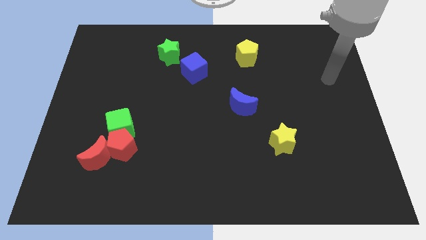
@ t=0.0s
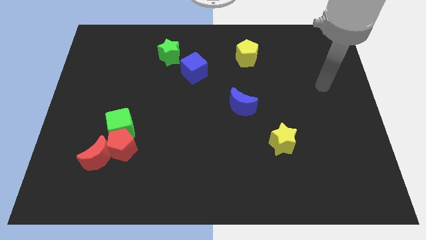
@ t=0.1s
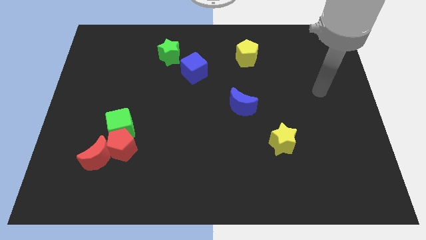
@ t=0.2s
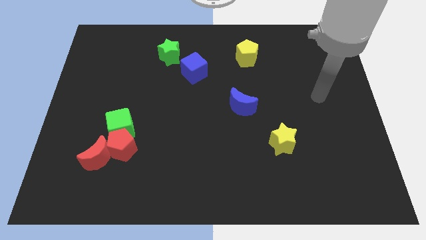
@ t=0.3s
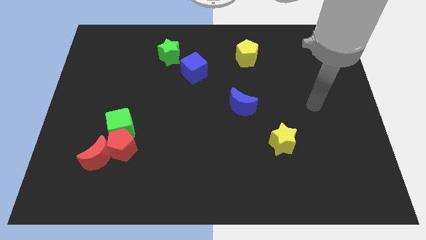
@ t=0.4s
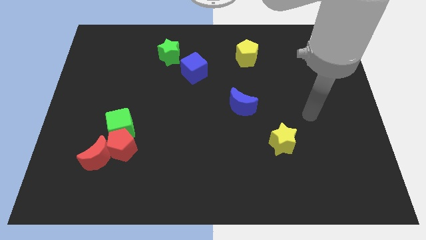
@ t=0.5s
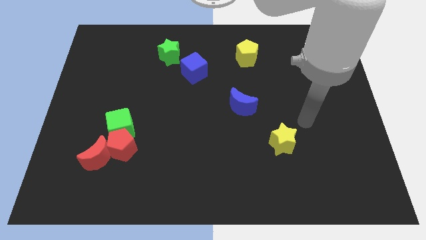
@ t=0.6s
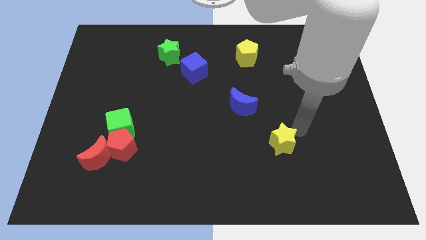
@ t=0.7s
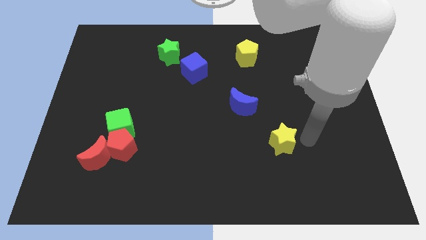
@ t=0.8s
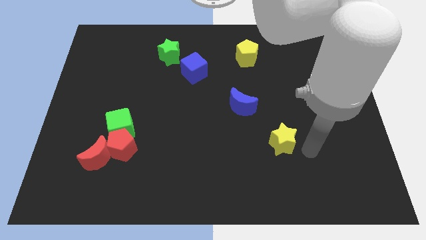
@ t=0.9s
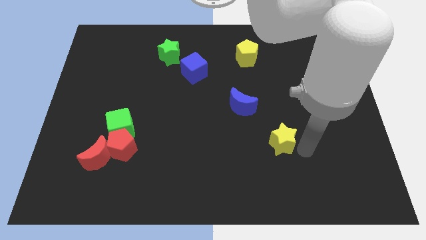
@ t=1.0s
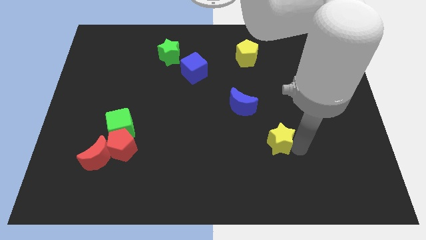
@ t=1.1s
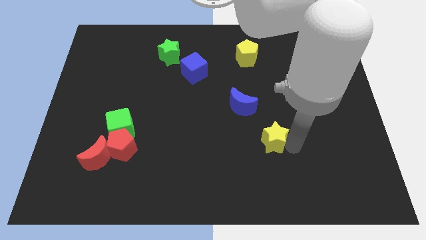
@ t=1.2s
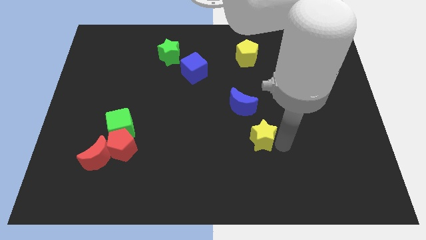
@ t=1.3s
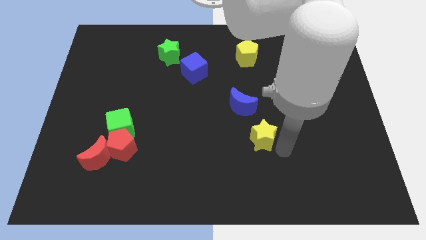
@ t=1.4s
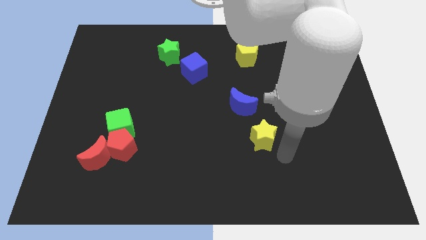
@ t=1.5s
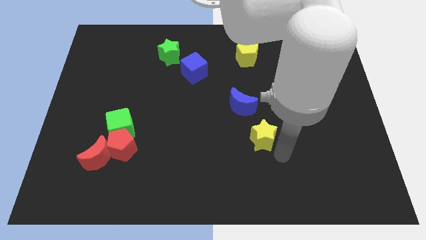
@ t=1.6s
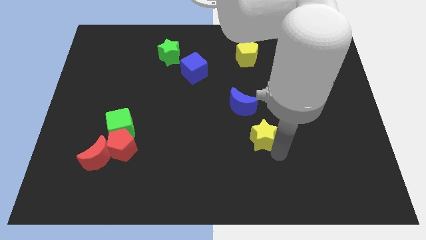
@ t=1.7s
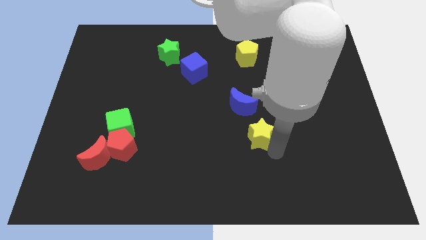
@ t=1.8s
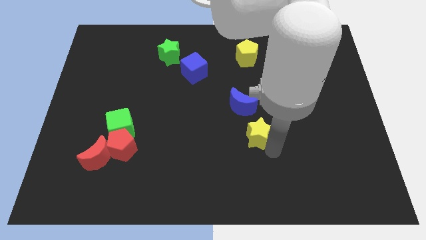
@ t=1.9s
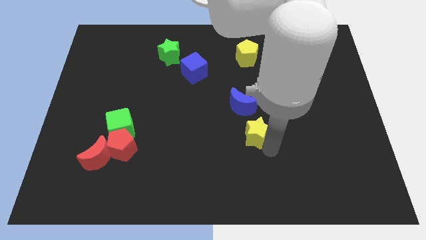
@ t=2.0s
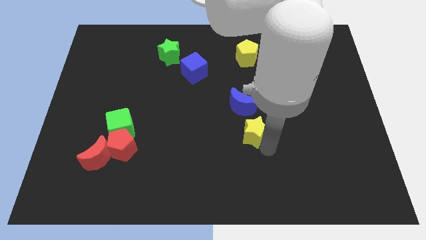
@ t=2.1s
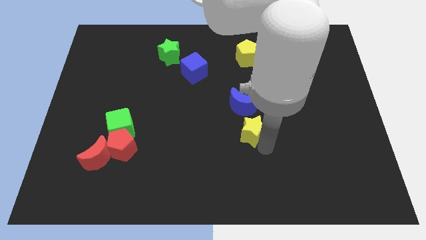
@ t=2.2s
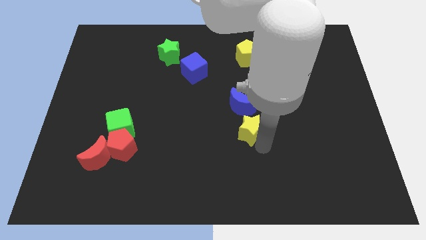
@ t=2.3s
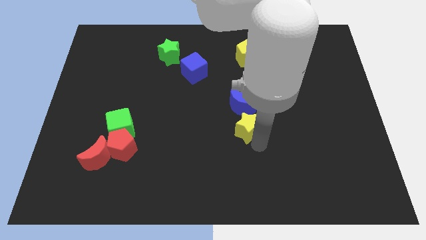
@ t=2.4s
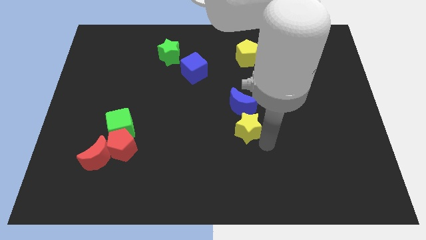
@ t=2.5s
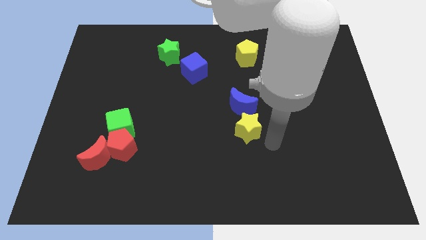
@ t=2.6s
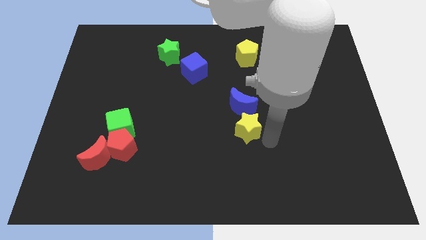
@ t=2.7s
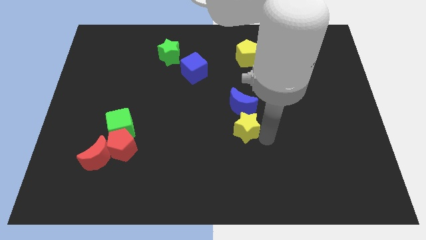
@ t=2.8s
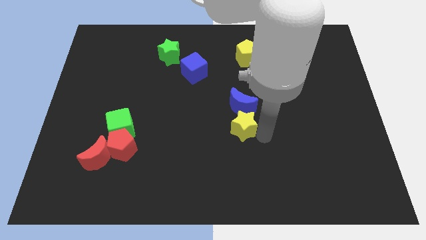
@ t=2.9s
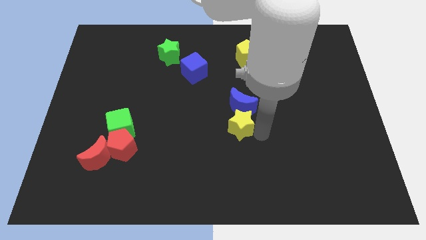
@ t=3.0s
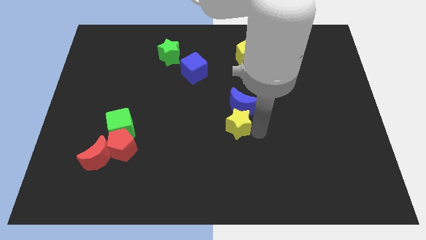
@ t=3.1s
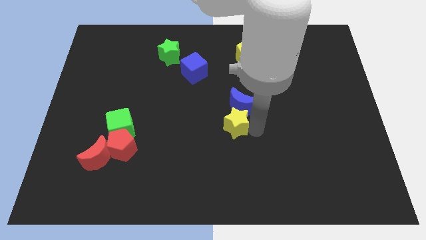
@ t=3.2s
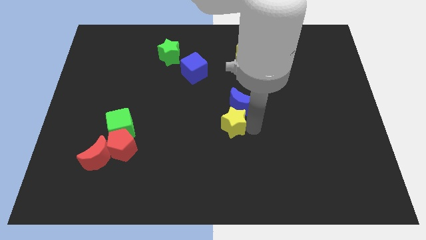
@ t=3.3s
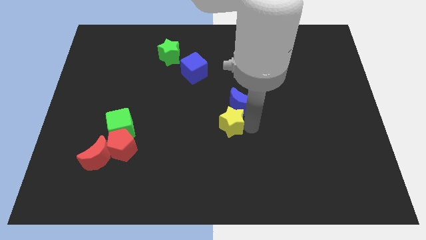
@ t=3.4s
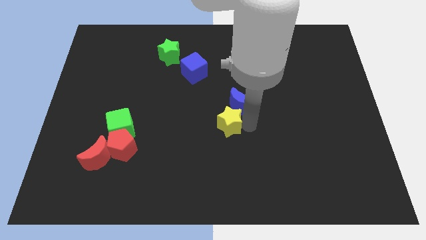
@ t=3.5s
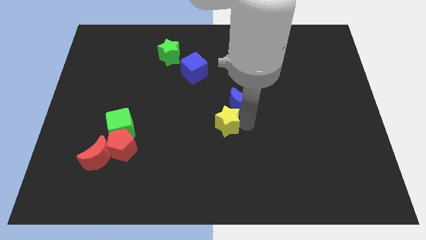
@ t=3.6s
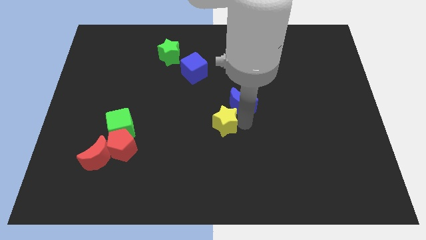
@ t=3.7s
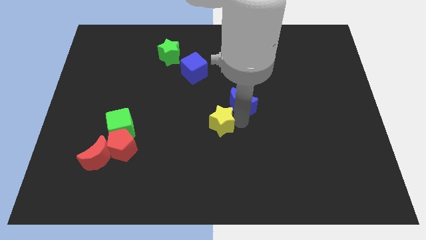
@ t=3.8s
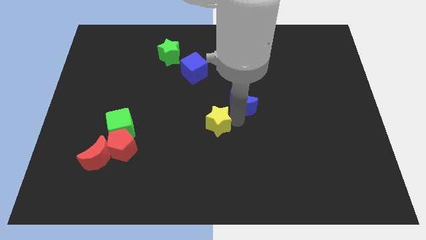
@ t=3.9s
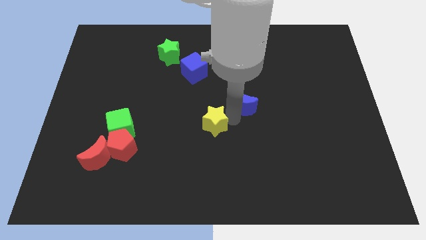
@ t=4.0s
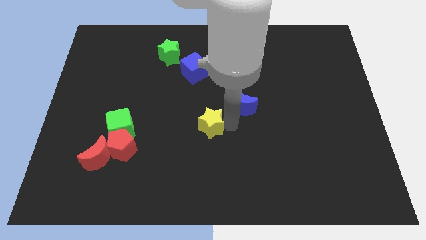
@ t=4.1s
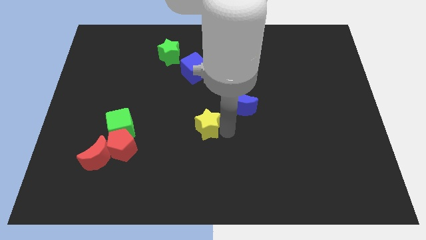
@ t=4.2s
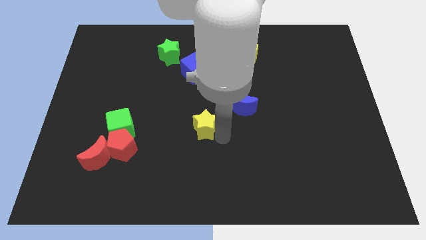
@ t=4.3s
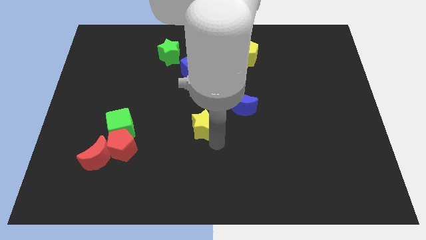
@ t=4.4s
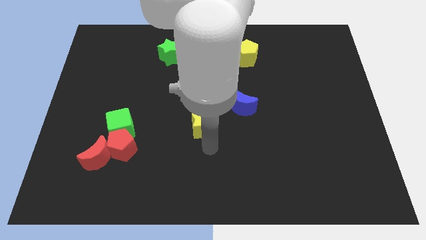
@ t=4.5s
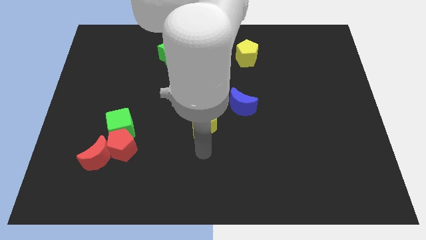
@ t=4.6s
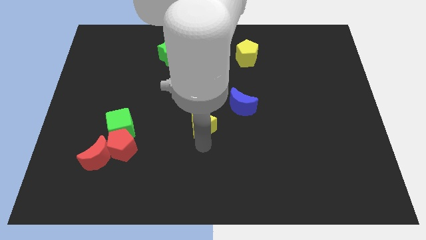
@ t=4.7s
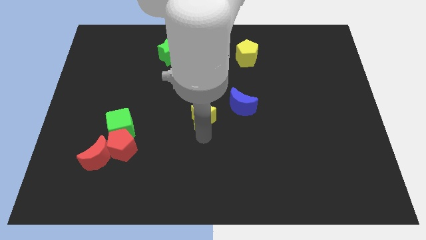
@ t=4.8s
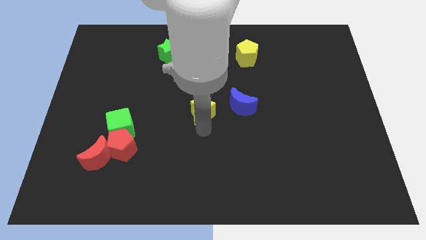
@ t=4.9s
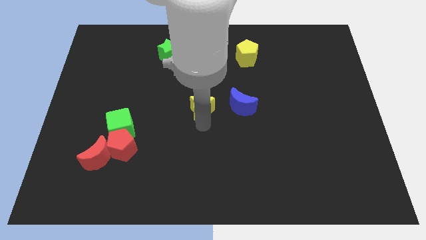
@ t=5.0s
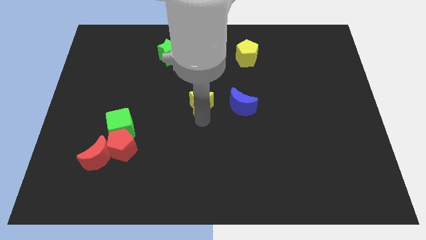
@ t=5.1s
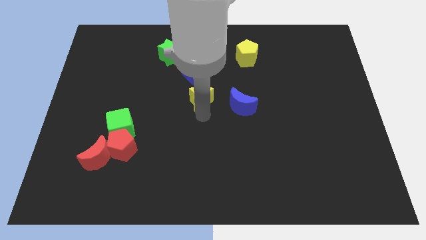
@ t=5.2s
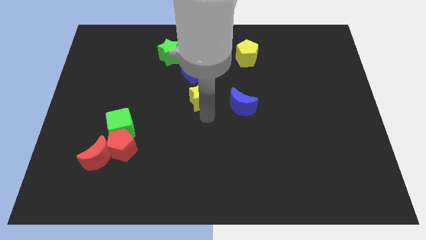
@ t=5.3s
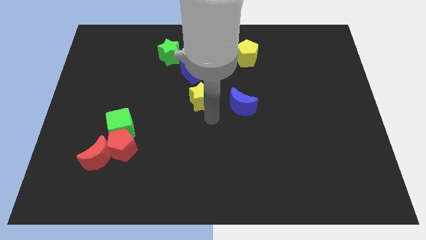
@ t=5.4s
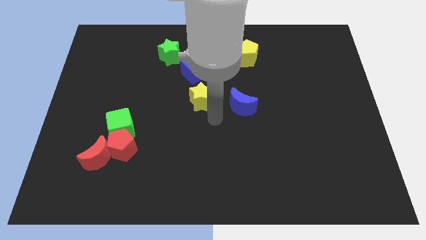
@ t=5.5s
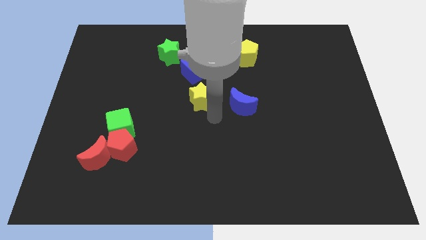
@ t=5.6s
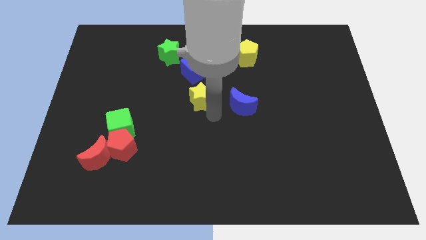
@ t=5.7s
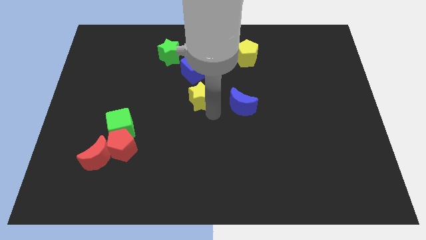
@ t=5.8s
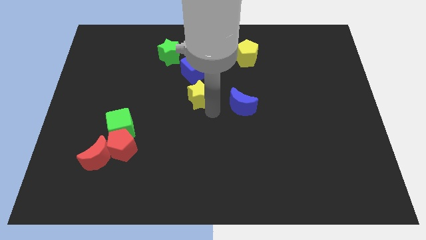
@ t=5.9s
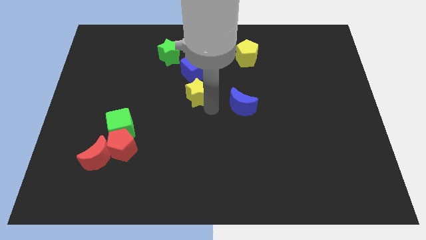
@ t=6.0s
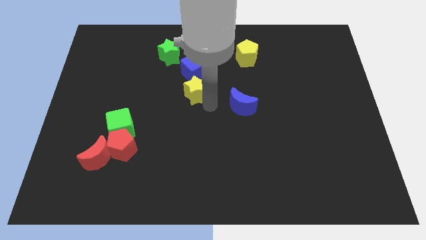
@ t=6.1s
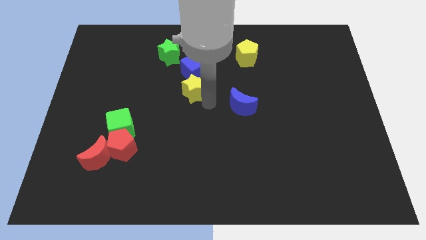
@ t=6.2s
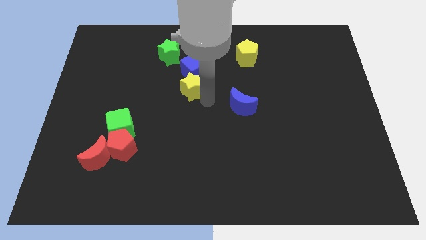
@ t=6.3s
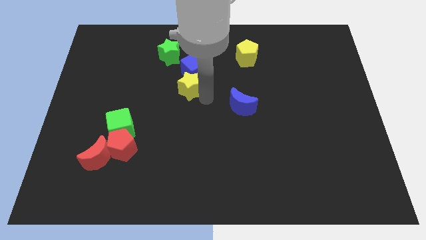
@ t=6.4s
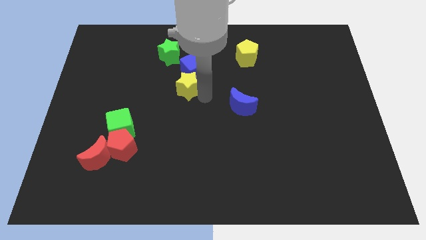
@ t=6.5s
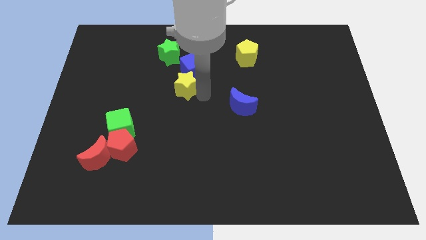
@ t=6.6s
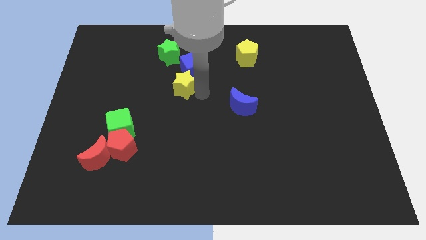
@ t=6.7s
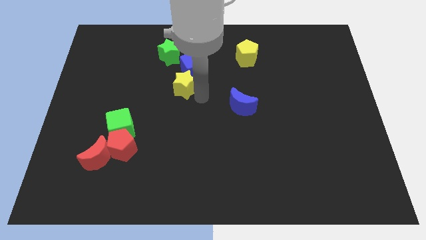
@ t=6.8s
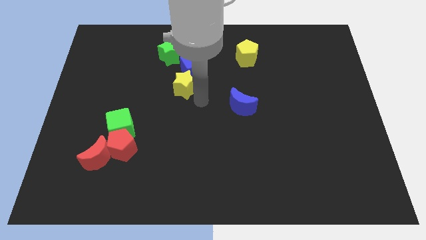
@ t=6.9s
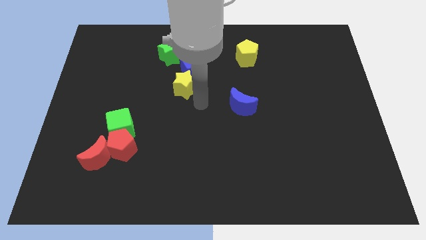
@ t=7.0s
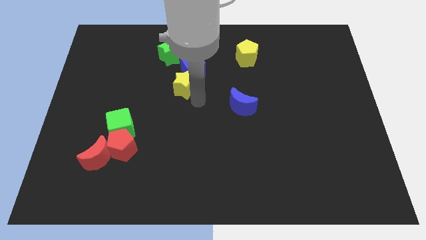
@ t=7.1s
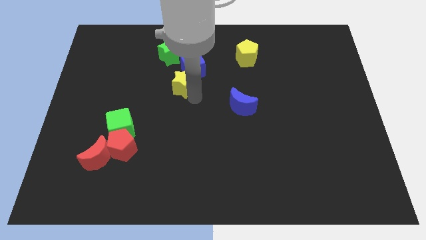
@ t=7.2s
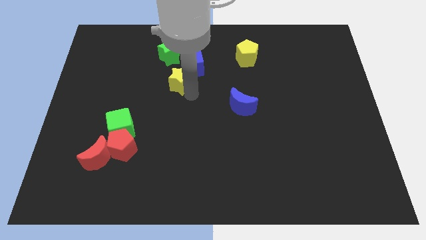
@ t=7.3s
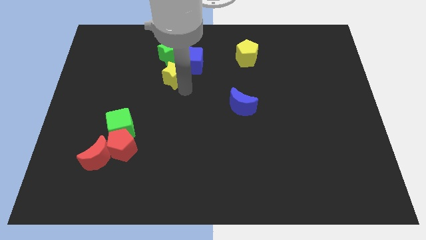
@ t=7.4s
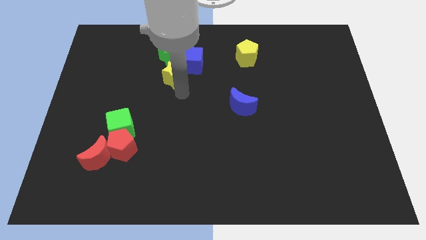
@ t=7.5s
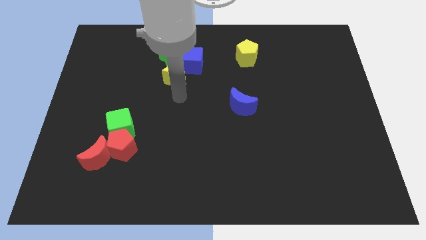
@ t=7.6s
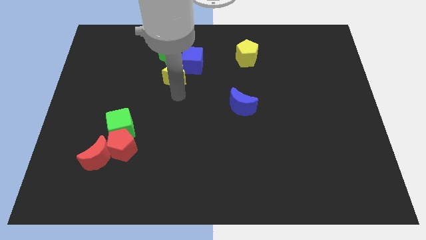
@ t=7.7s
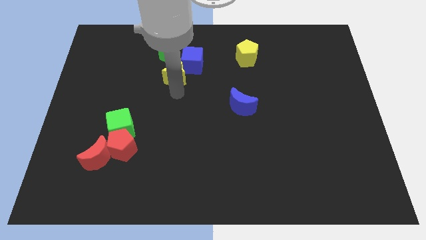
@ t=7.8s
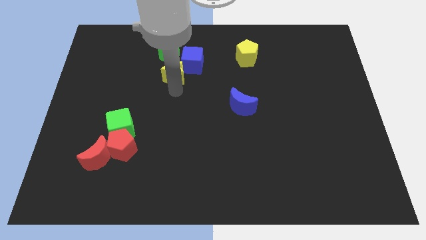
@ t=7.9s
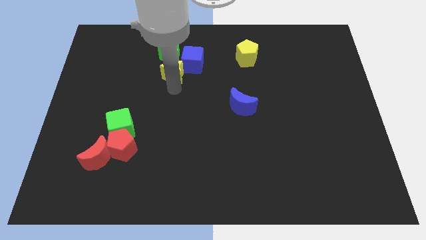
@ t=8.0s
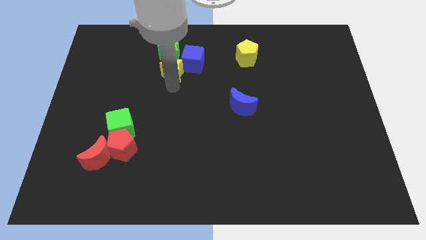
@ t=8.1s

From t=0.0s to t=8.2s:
put the yellow star close to the green star

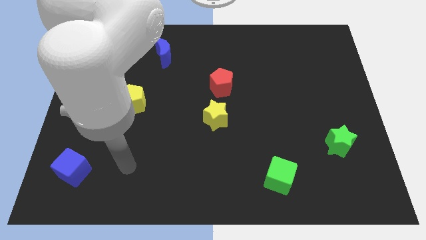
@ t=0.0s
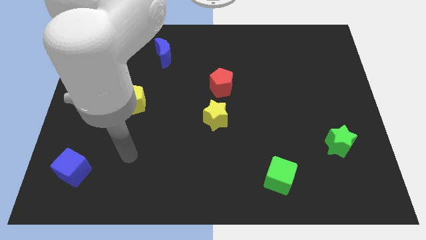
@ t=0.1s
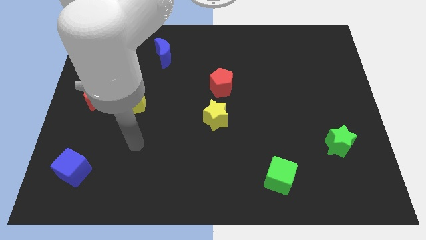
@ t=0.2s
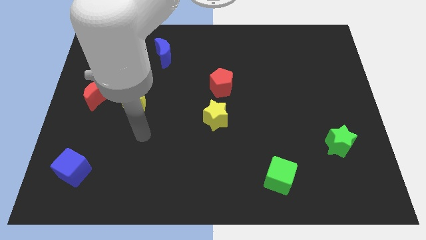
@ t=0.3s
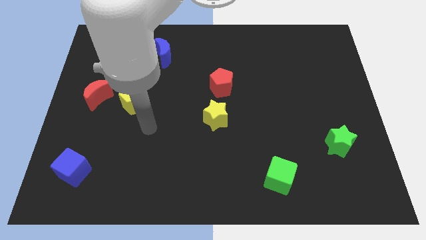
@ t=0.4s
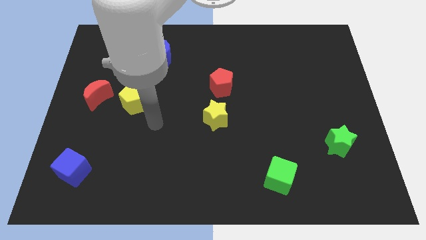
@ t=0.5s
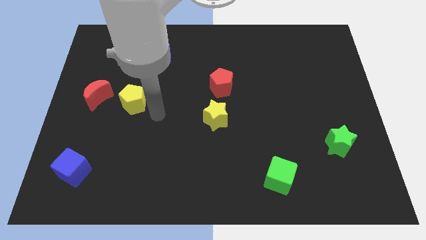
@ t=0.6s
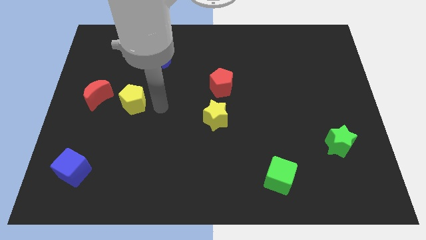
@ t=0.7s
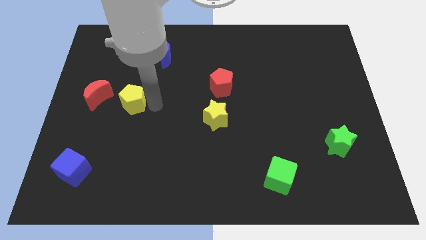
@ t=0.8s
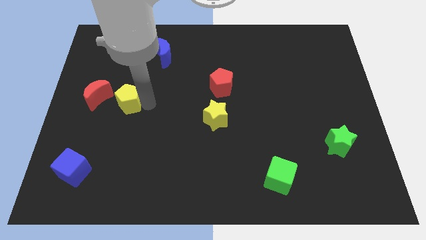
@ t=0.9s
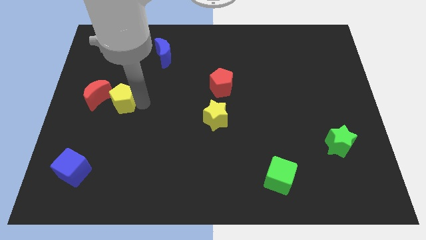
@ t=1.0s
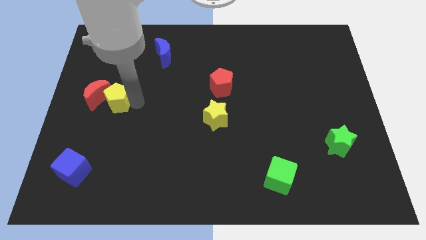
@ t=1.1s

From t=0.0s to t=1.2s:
put the yellow pentagon next to the red moon
